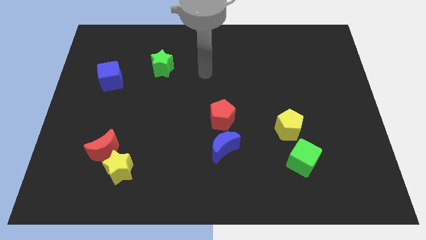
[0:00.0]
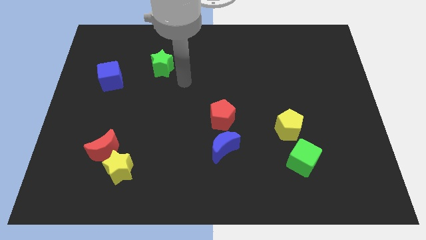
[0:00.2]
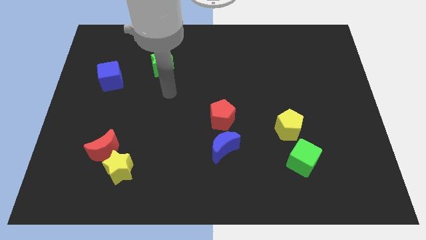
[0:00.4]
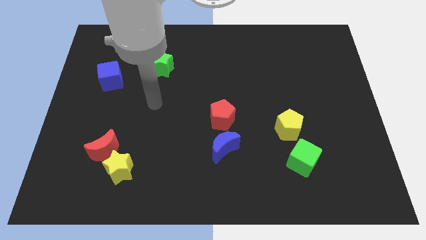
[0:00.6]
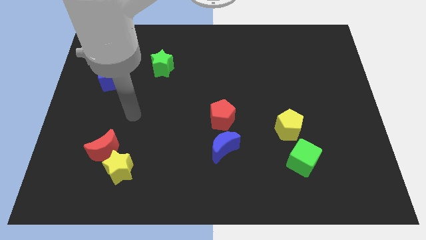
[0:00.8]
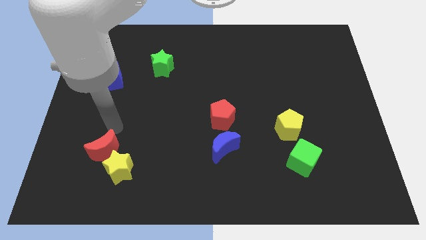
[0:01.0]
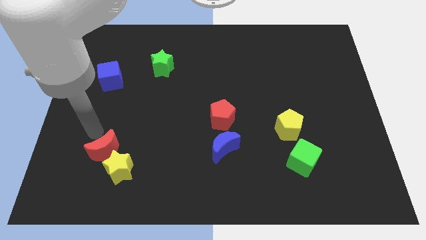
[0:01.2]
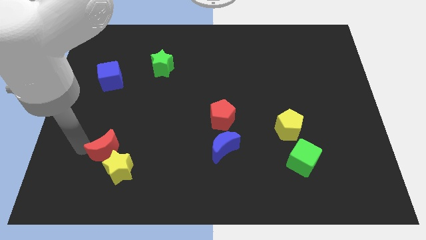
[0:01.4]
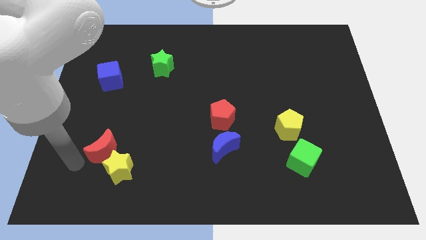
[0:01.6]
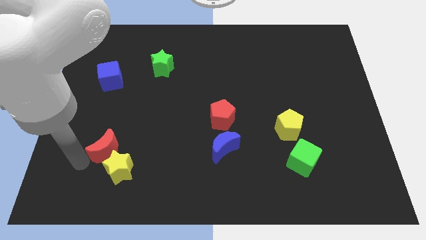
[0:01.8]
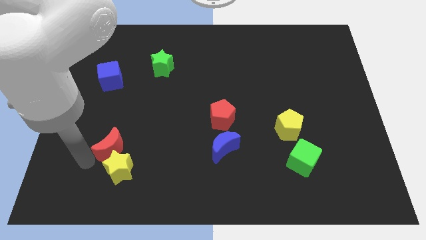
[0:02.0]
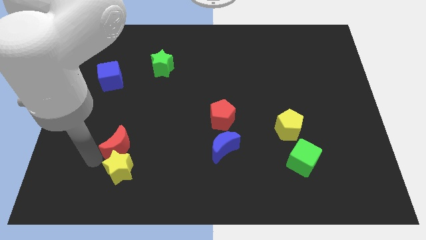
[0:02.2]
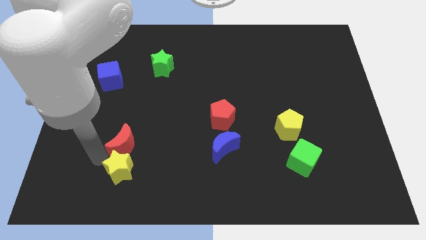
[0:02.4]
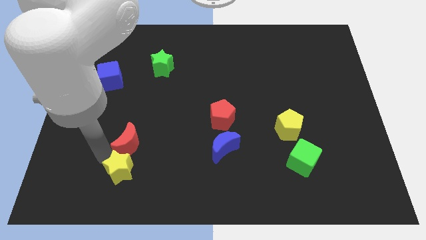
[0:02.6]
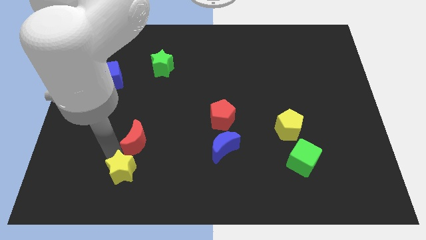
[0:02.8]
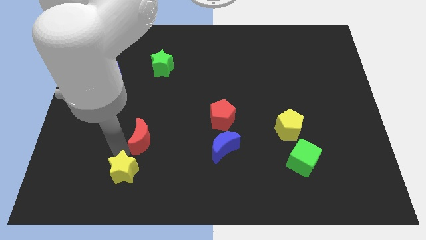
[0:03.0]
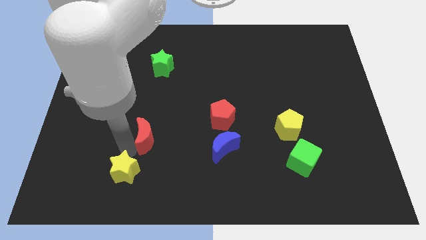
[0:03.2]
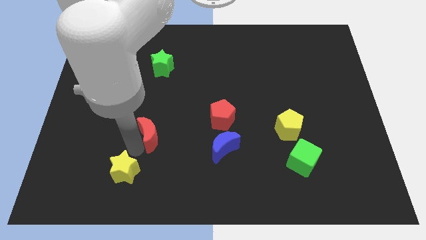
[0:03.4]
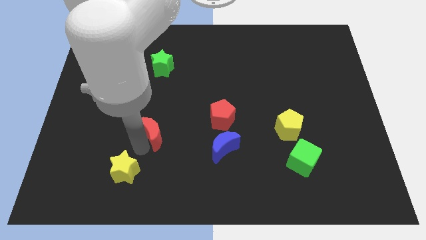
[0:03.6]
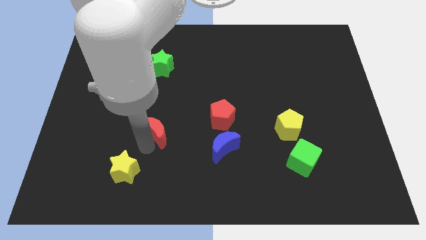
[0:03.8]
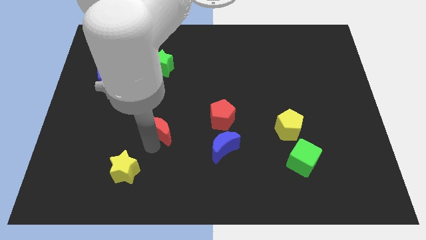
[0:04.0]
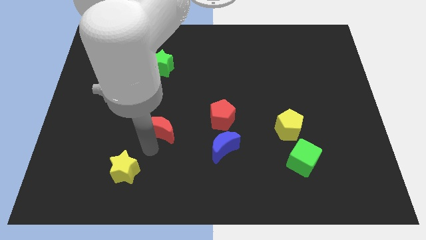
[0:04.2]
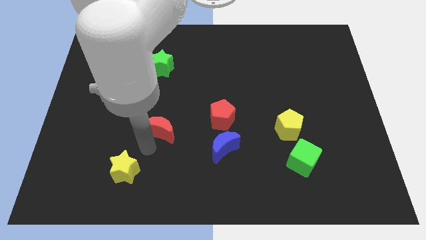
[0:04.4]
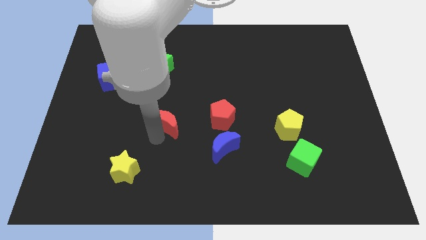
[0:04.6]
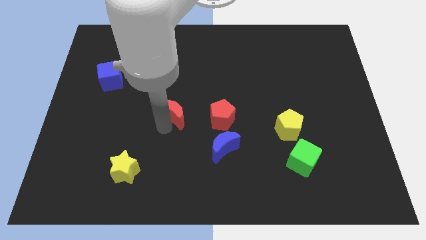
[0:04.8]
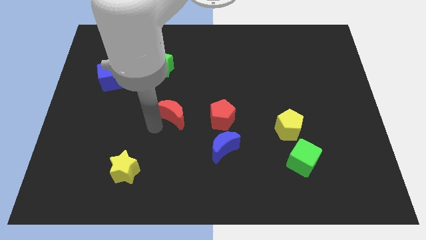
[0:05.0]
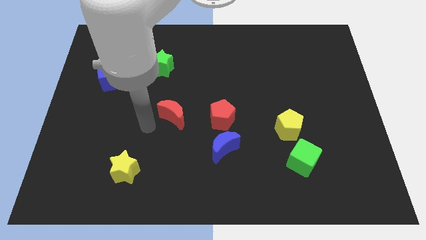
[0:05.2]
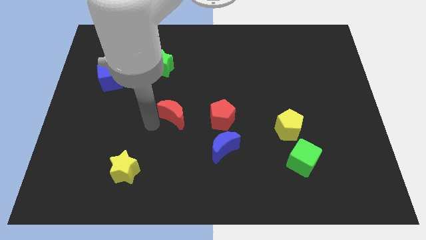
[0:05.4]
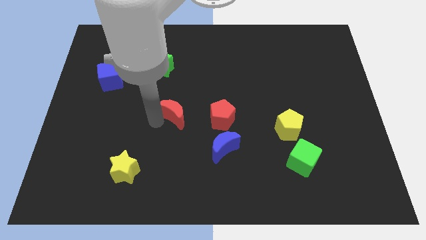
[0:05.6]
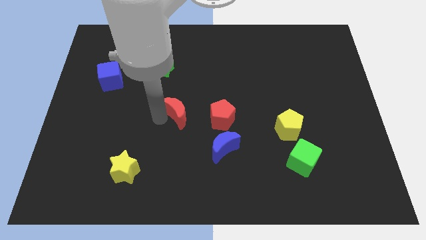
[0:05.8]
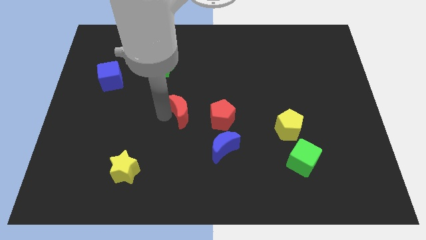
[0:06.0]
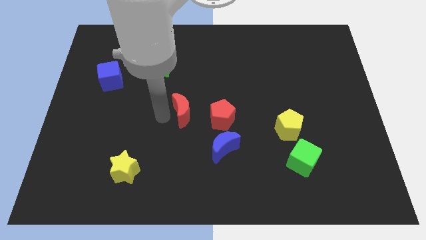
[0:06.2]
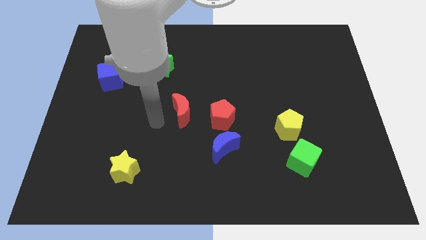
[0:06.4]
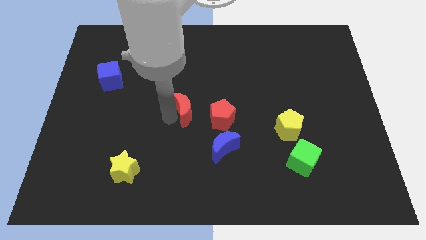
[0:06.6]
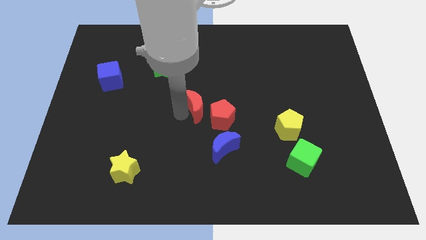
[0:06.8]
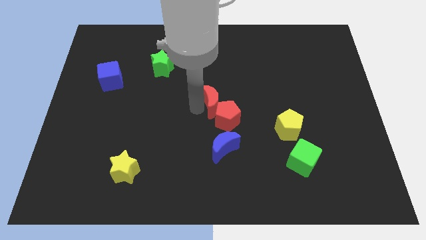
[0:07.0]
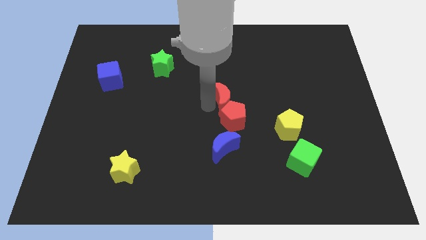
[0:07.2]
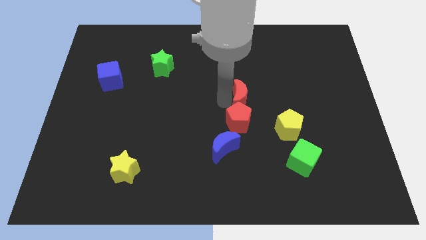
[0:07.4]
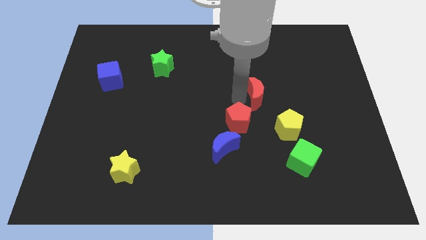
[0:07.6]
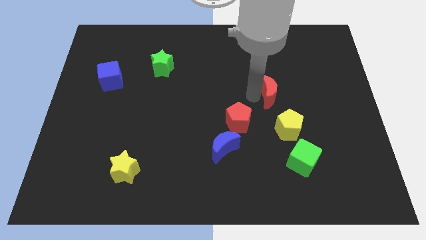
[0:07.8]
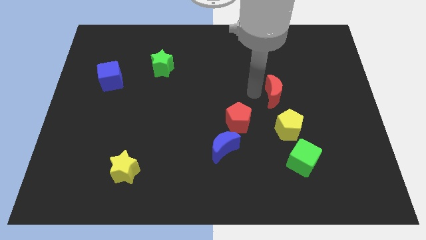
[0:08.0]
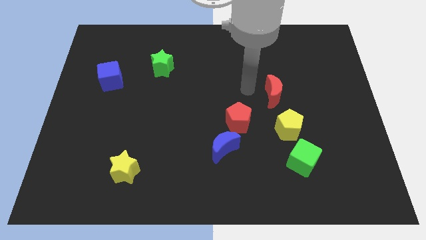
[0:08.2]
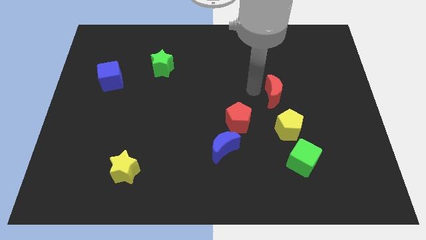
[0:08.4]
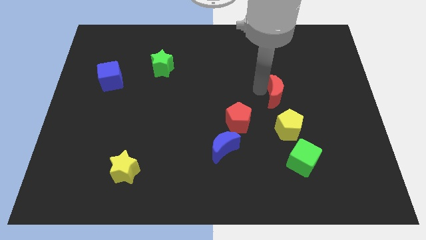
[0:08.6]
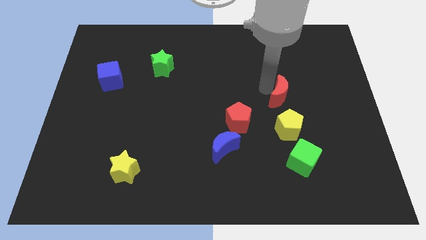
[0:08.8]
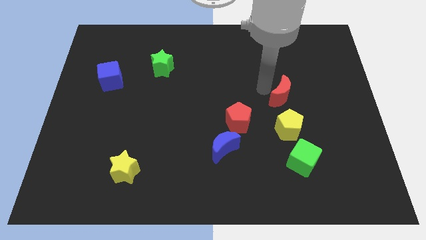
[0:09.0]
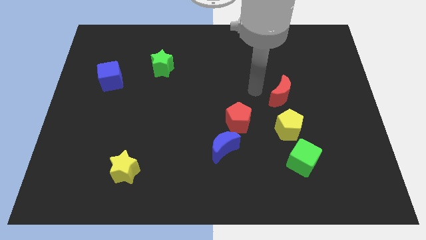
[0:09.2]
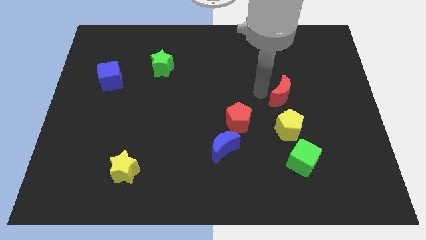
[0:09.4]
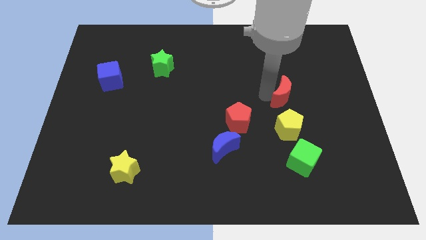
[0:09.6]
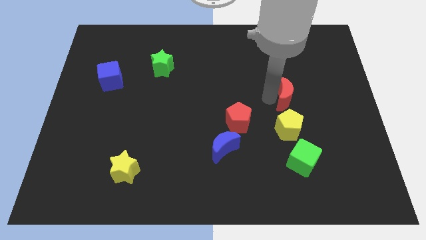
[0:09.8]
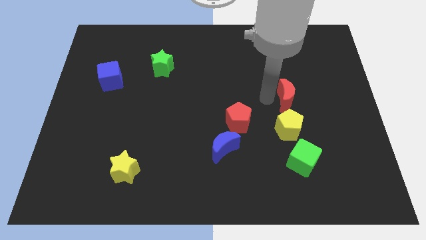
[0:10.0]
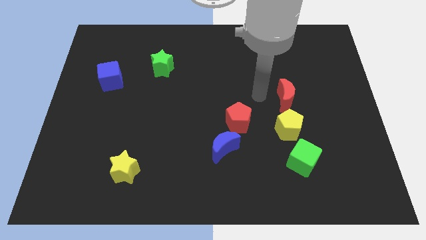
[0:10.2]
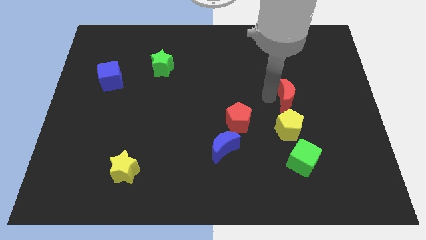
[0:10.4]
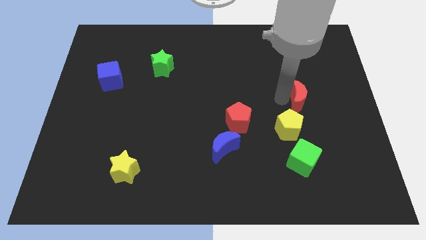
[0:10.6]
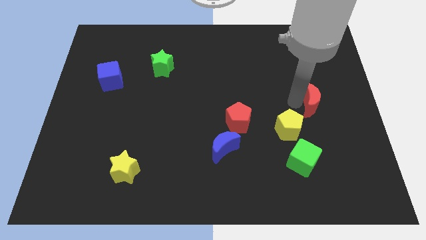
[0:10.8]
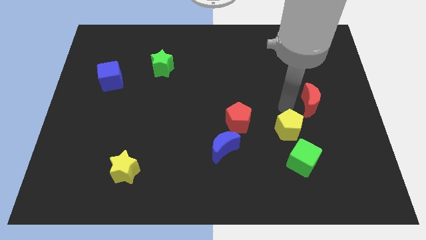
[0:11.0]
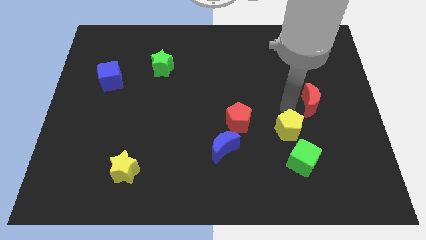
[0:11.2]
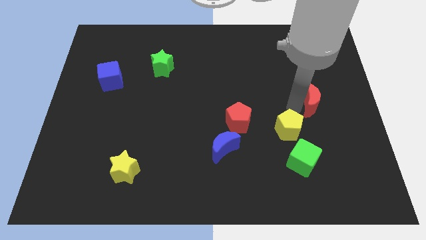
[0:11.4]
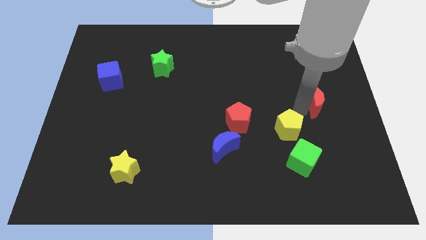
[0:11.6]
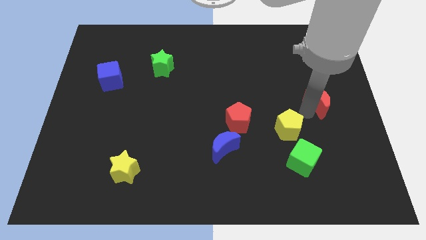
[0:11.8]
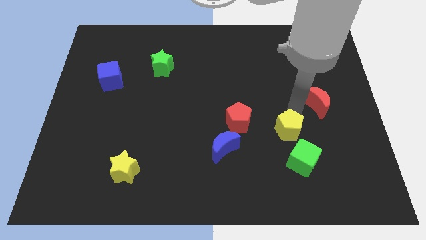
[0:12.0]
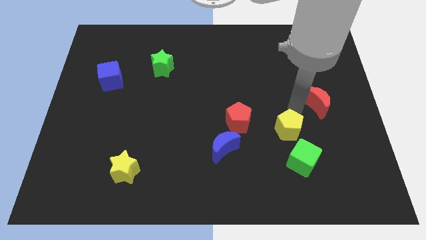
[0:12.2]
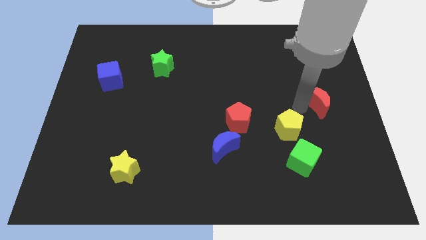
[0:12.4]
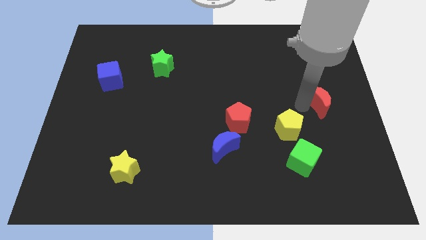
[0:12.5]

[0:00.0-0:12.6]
slide the red moon to the right side

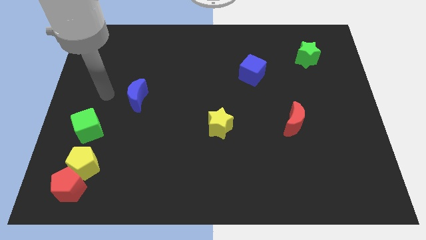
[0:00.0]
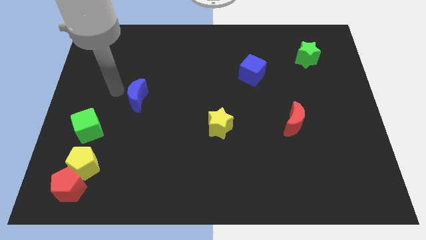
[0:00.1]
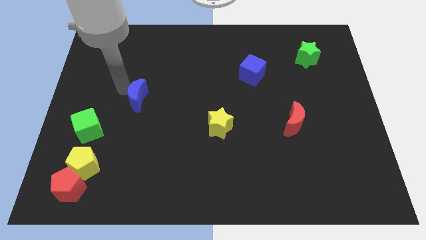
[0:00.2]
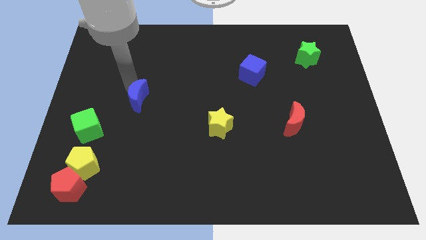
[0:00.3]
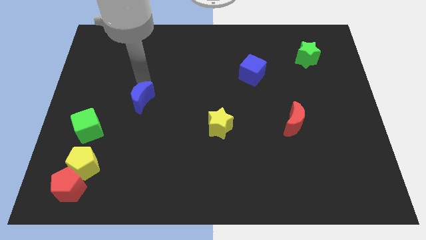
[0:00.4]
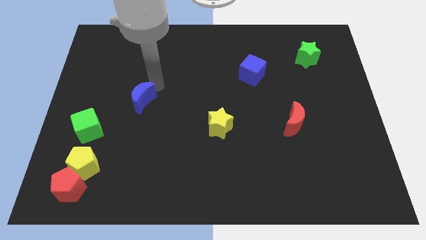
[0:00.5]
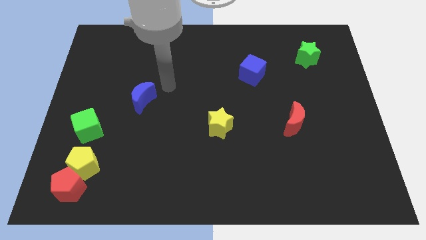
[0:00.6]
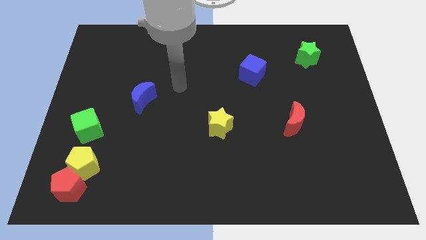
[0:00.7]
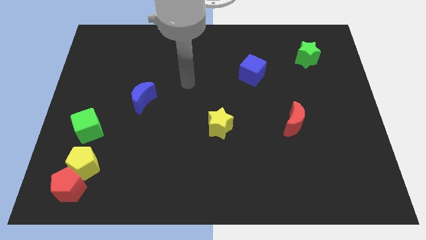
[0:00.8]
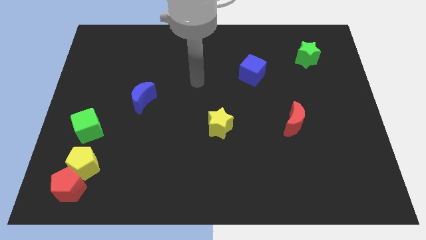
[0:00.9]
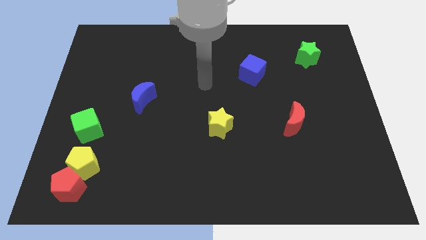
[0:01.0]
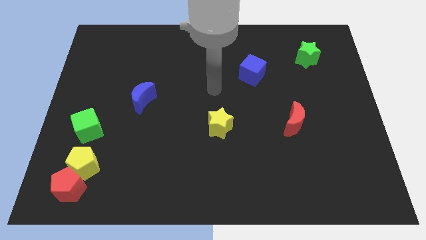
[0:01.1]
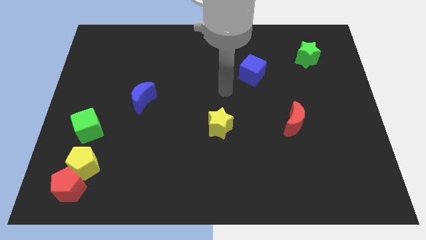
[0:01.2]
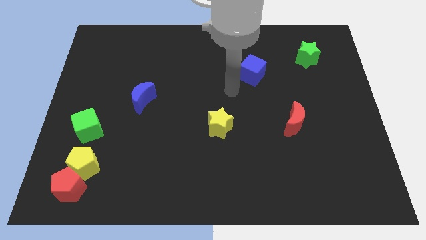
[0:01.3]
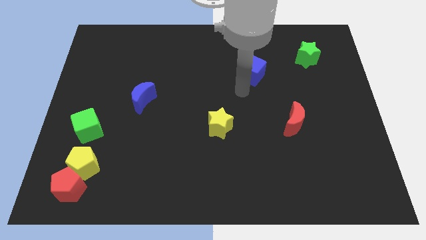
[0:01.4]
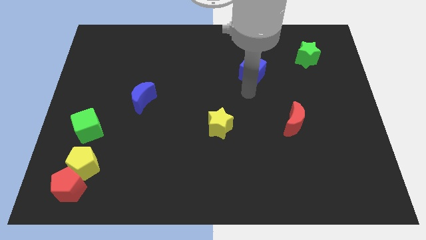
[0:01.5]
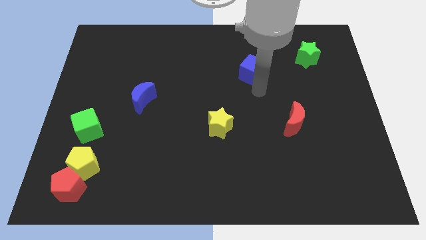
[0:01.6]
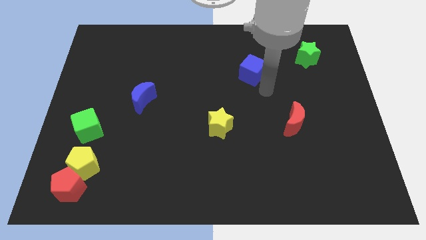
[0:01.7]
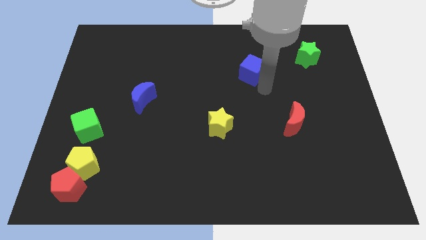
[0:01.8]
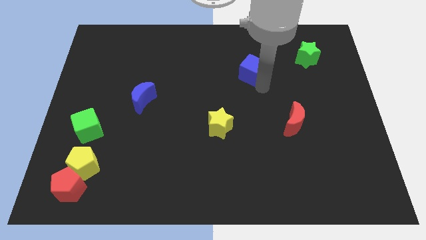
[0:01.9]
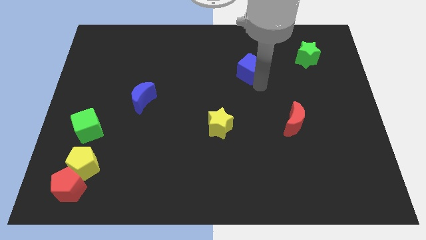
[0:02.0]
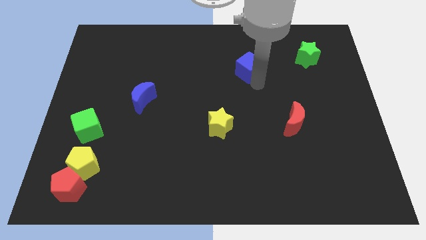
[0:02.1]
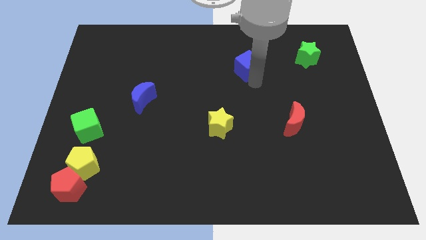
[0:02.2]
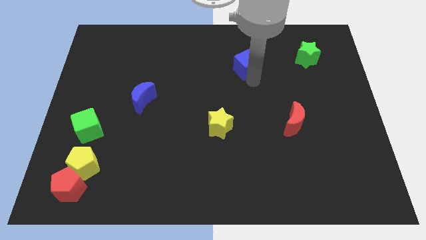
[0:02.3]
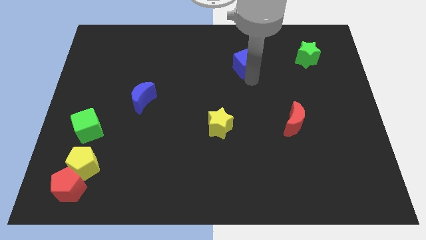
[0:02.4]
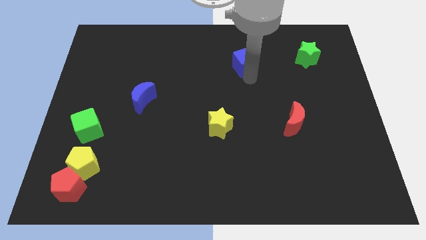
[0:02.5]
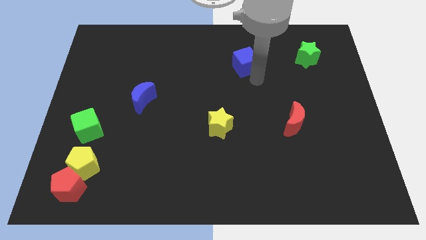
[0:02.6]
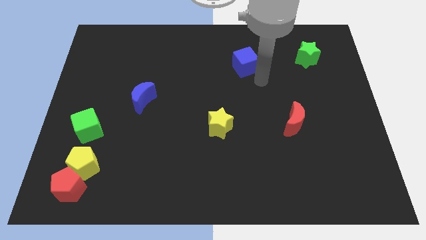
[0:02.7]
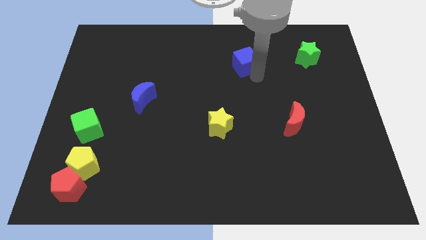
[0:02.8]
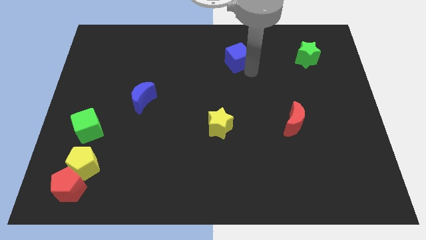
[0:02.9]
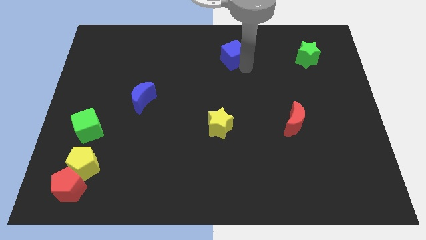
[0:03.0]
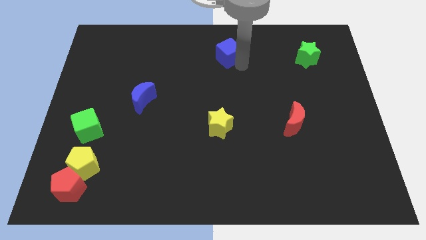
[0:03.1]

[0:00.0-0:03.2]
move the blue cube to the top side
